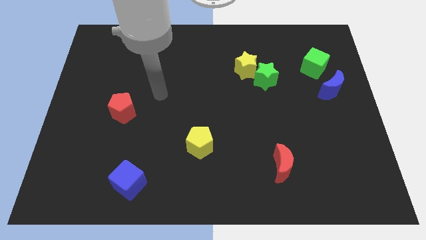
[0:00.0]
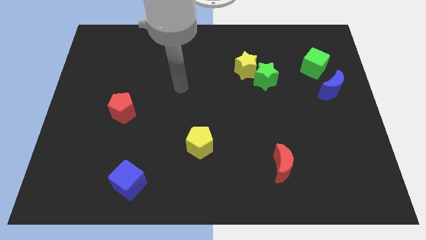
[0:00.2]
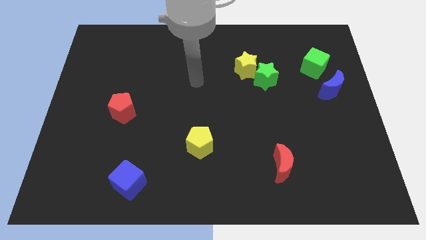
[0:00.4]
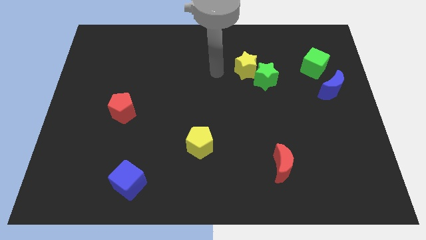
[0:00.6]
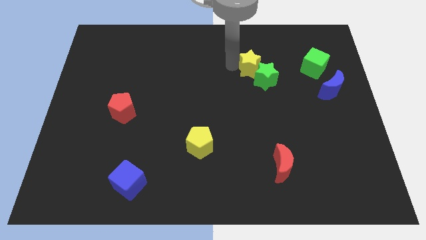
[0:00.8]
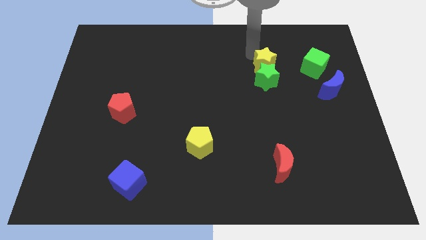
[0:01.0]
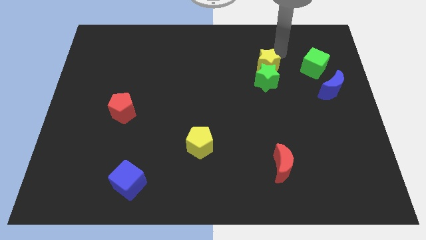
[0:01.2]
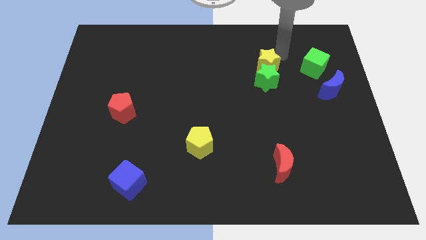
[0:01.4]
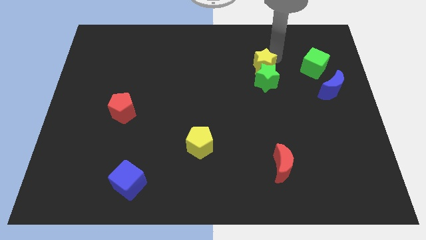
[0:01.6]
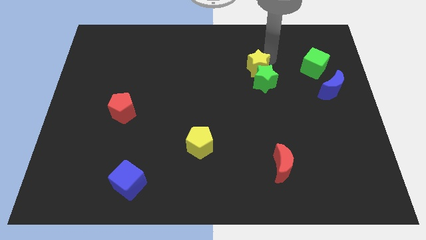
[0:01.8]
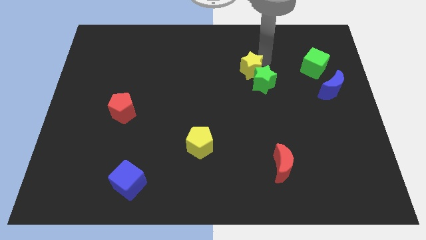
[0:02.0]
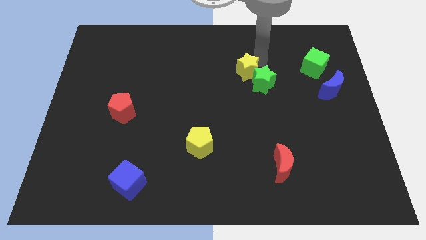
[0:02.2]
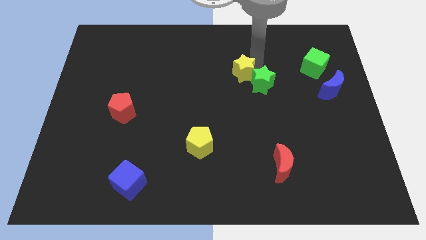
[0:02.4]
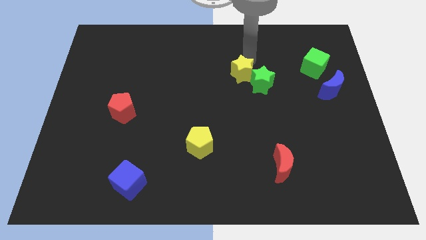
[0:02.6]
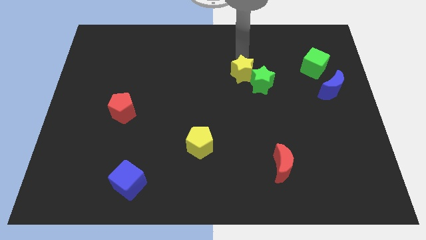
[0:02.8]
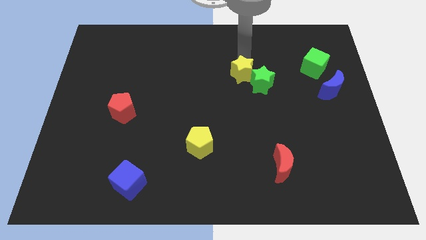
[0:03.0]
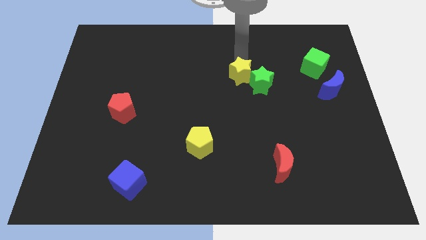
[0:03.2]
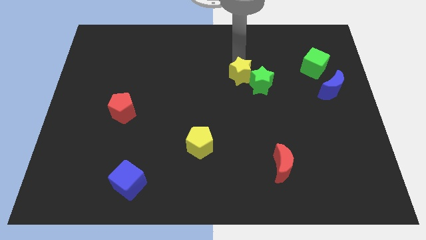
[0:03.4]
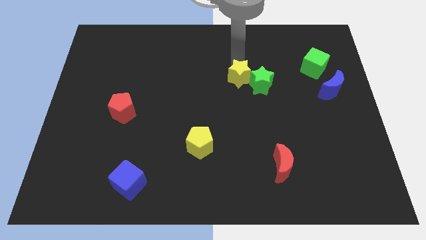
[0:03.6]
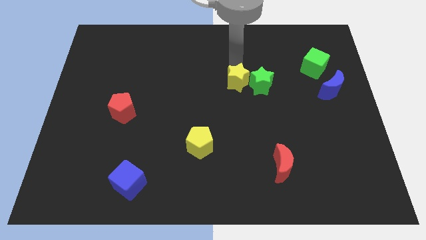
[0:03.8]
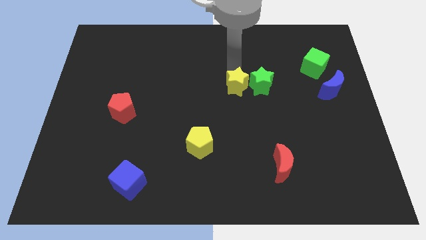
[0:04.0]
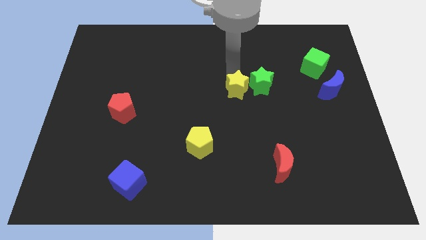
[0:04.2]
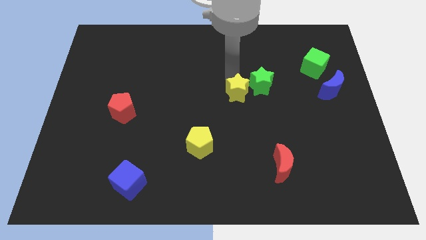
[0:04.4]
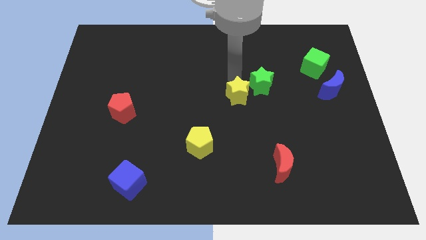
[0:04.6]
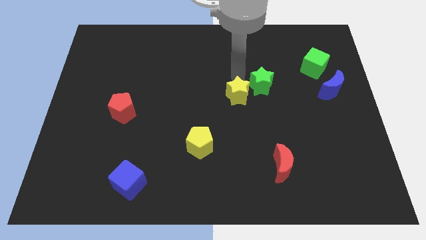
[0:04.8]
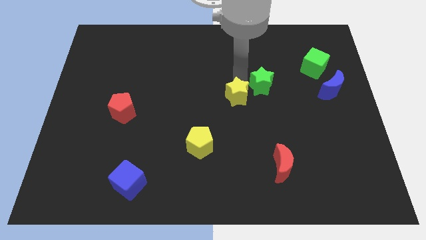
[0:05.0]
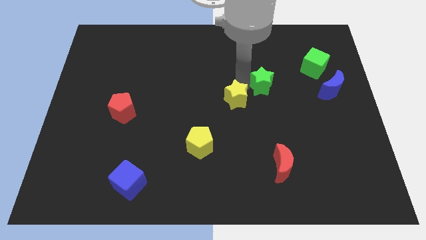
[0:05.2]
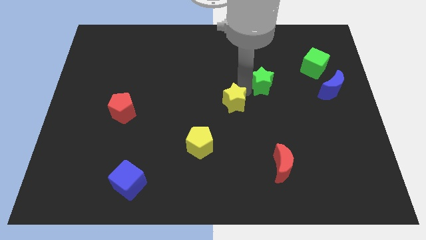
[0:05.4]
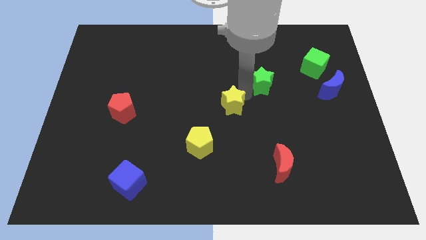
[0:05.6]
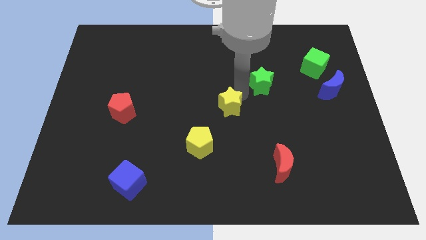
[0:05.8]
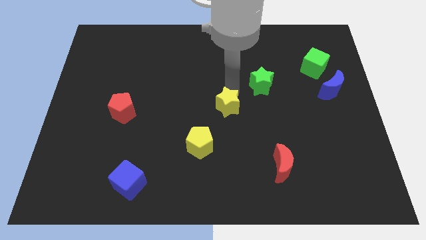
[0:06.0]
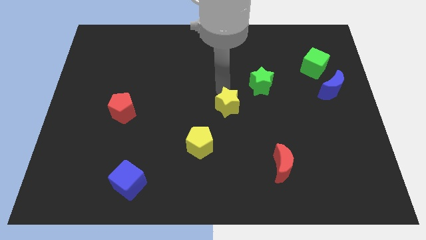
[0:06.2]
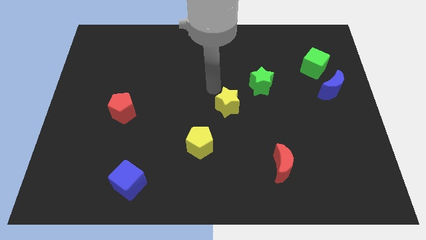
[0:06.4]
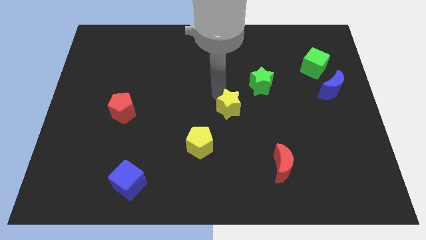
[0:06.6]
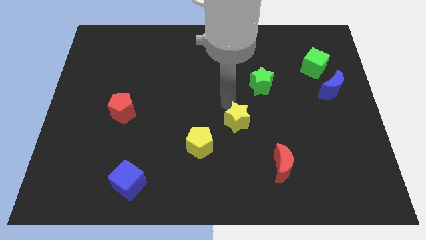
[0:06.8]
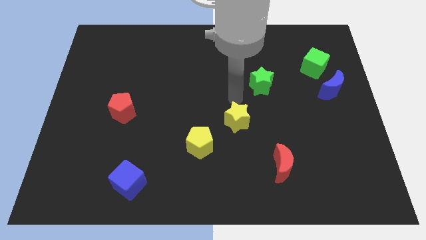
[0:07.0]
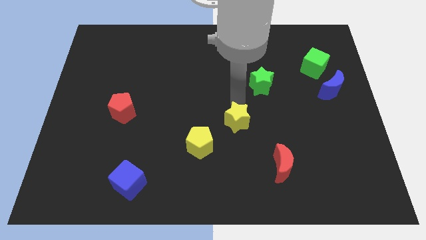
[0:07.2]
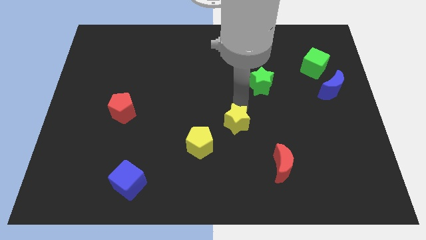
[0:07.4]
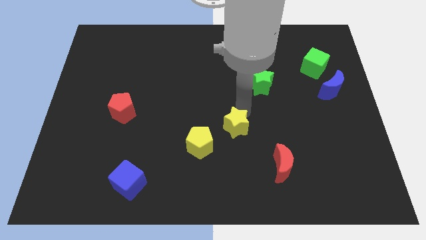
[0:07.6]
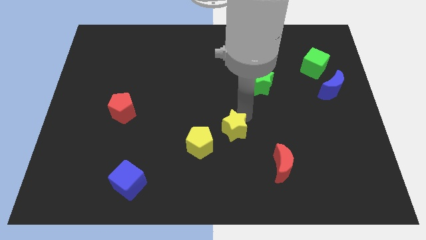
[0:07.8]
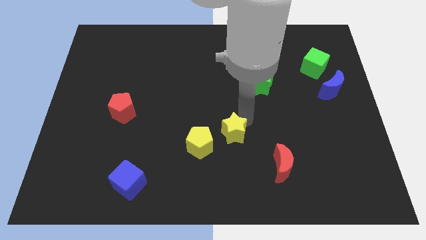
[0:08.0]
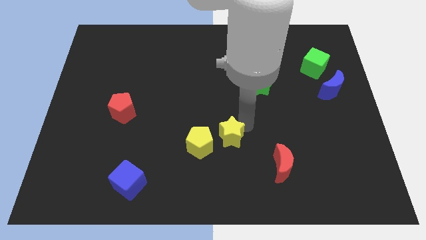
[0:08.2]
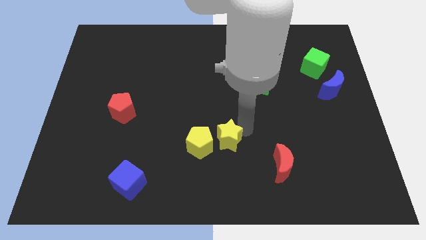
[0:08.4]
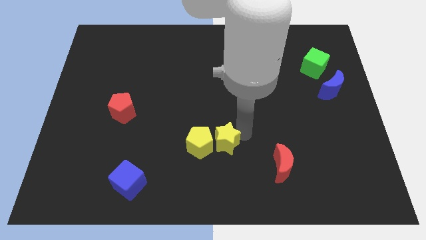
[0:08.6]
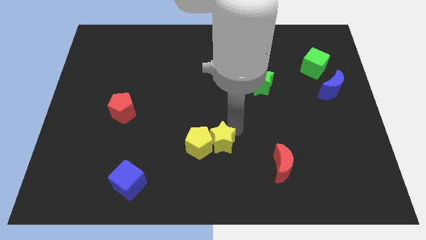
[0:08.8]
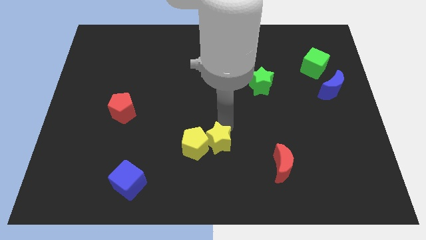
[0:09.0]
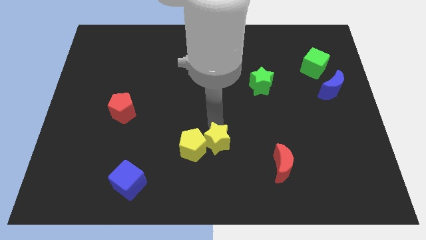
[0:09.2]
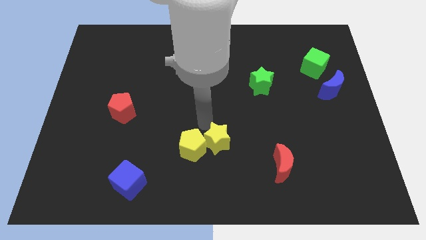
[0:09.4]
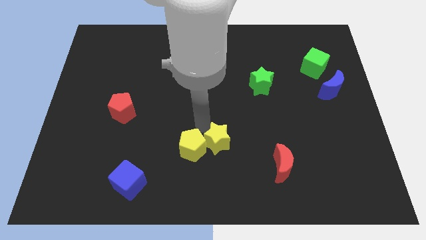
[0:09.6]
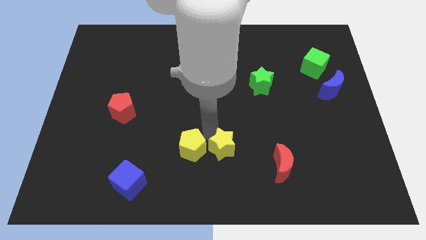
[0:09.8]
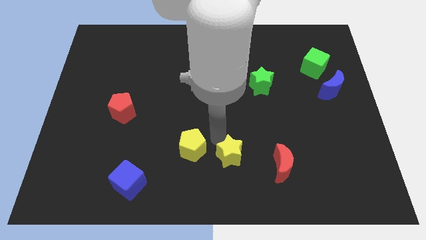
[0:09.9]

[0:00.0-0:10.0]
move the yellow star to the bottom

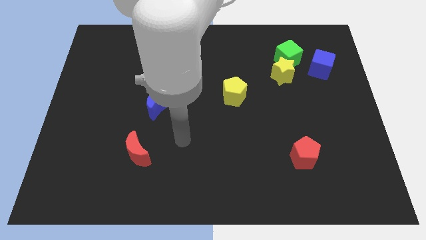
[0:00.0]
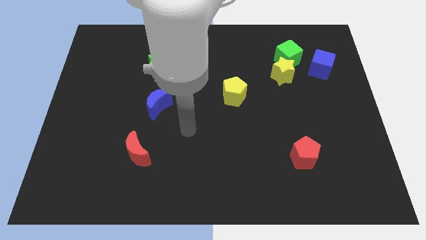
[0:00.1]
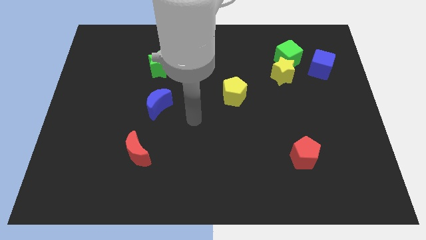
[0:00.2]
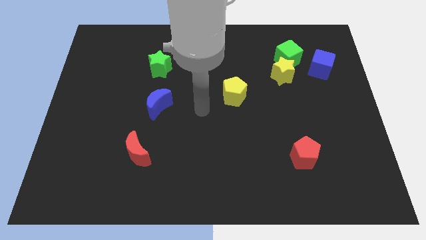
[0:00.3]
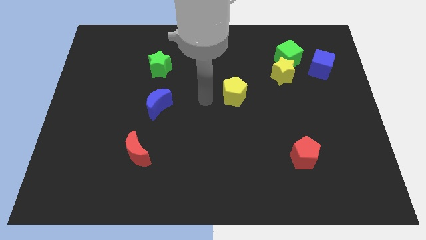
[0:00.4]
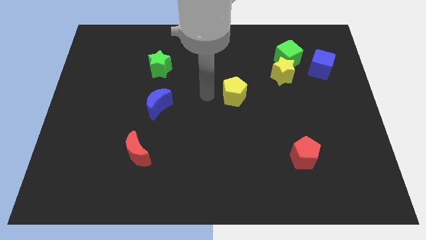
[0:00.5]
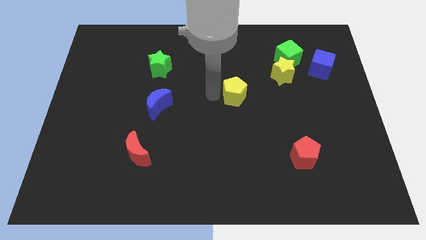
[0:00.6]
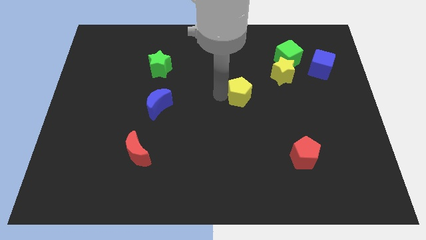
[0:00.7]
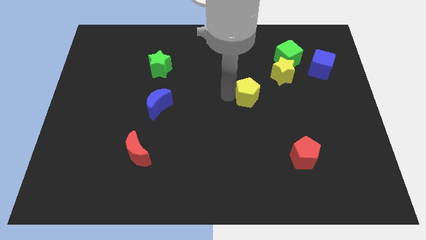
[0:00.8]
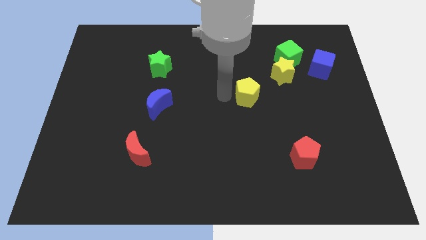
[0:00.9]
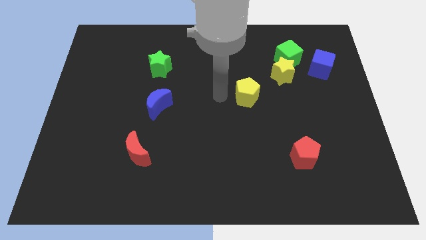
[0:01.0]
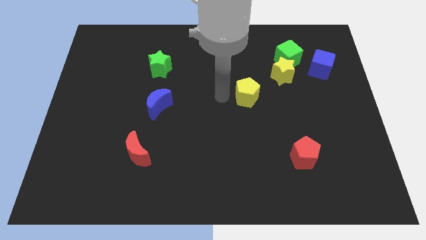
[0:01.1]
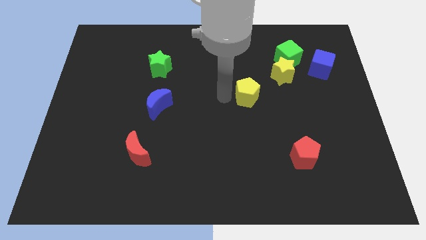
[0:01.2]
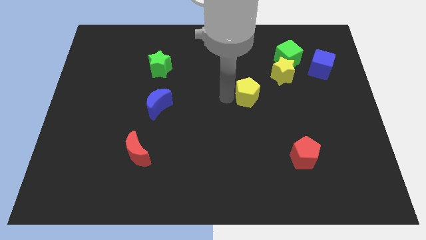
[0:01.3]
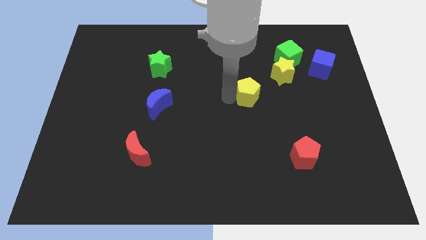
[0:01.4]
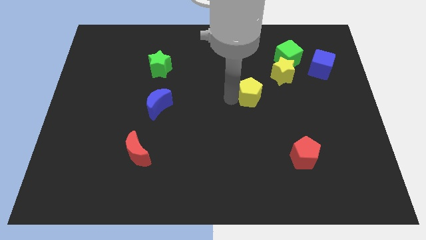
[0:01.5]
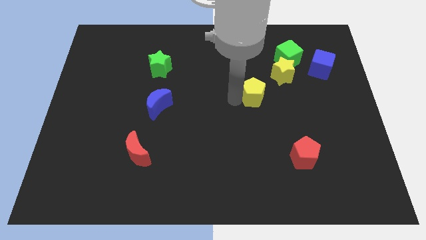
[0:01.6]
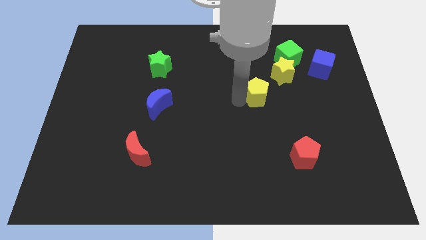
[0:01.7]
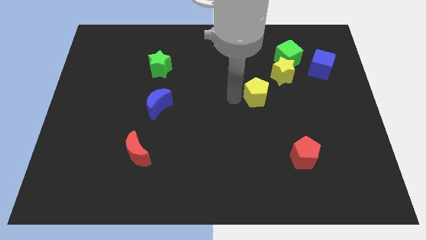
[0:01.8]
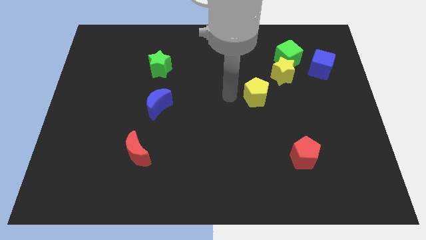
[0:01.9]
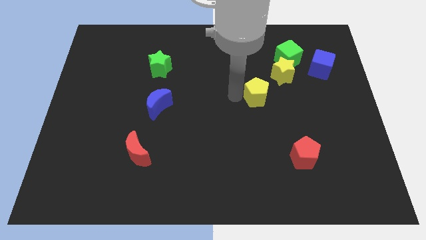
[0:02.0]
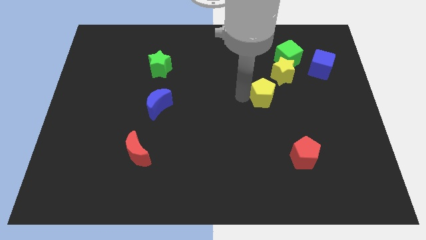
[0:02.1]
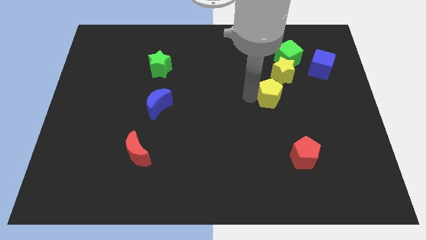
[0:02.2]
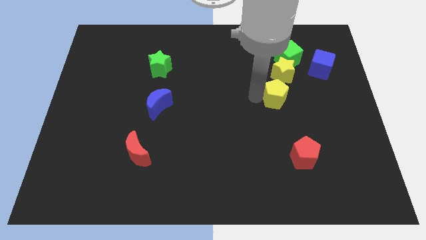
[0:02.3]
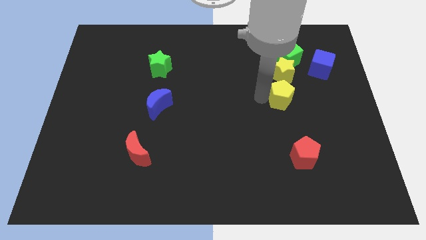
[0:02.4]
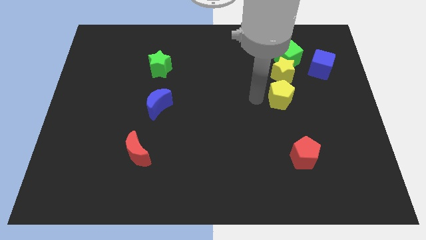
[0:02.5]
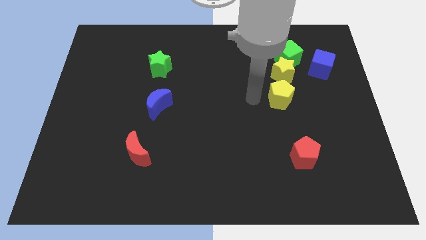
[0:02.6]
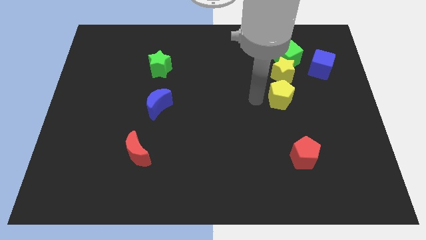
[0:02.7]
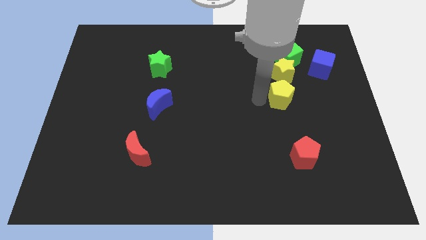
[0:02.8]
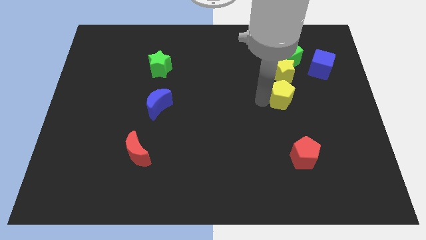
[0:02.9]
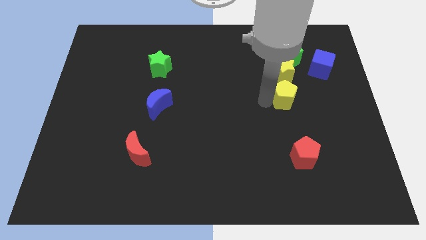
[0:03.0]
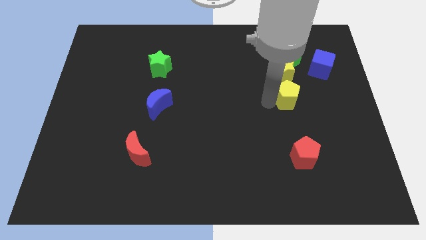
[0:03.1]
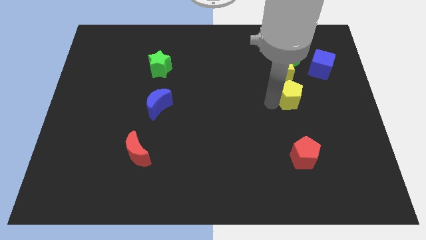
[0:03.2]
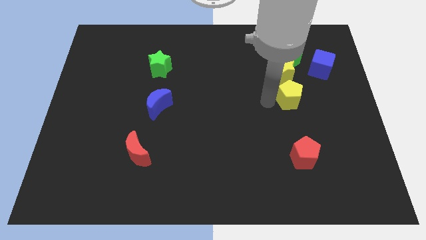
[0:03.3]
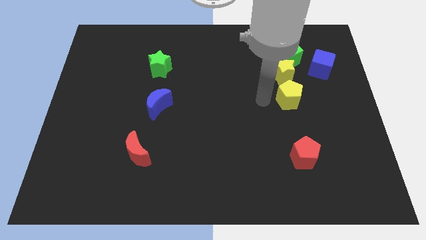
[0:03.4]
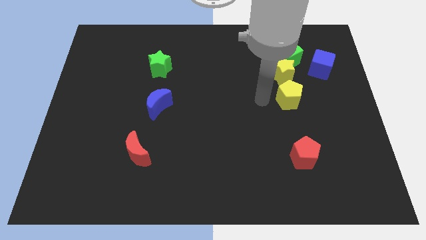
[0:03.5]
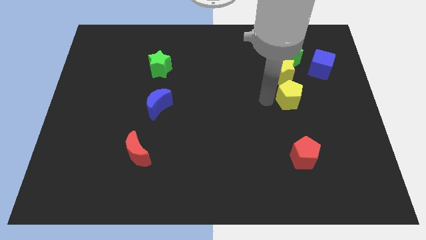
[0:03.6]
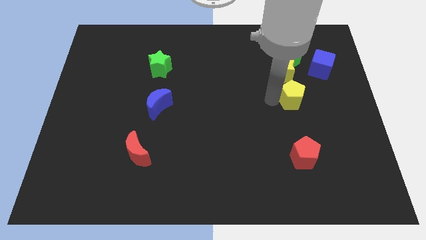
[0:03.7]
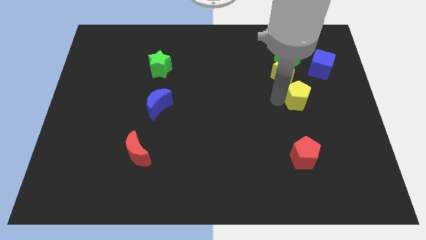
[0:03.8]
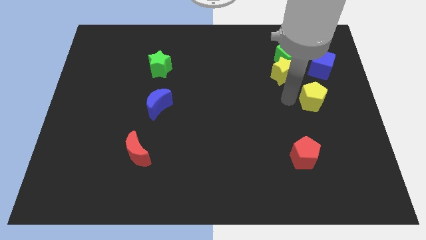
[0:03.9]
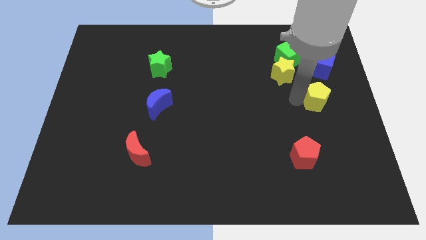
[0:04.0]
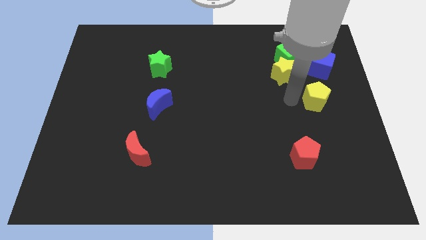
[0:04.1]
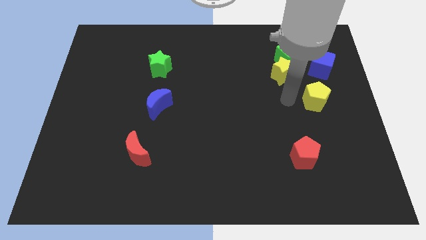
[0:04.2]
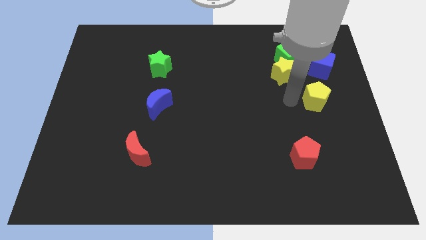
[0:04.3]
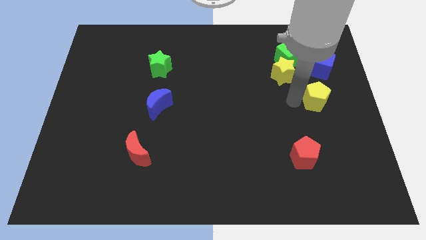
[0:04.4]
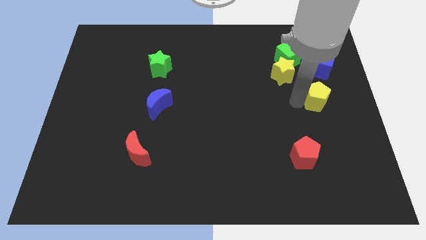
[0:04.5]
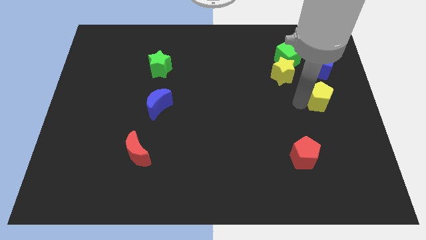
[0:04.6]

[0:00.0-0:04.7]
slide the yellow pentagon to the right side
